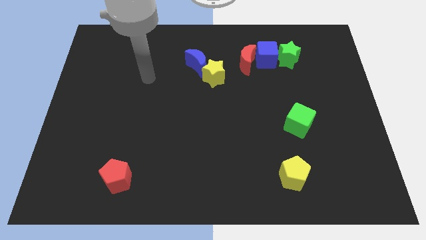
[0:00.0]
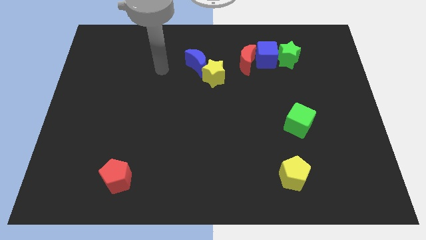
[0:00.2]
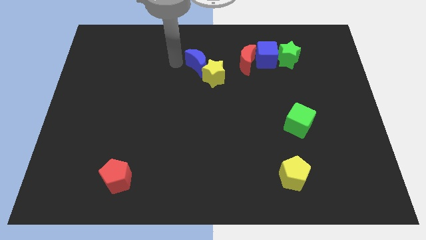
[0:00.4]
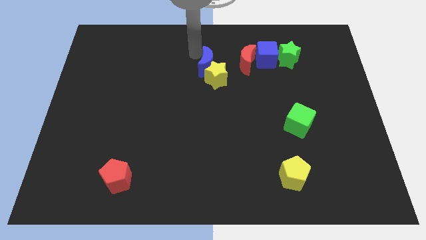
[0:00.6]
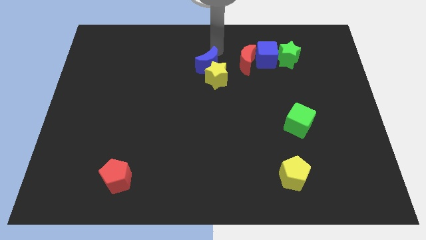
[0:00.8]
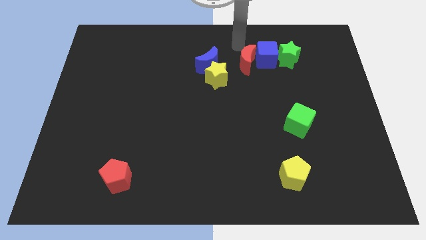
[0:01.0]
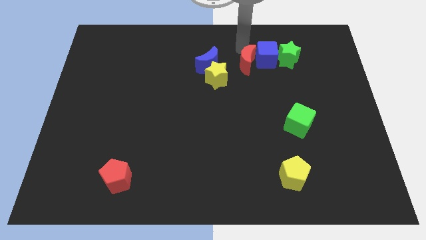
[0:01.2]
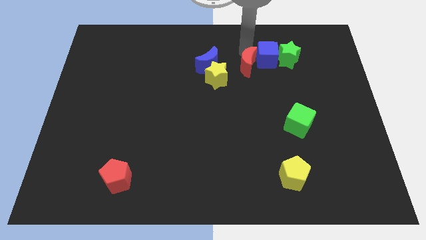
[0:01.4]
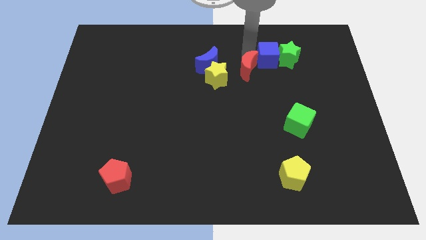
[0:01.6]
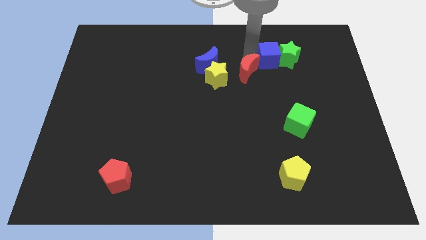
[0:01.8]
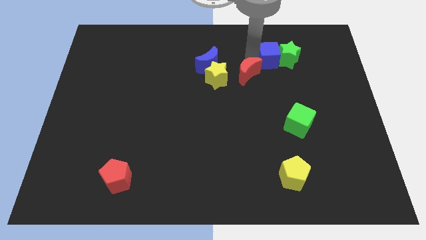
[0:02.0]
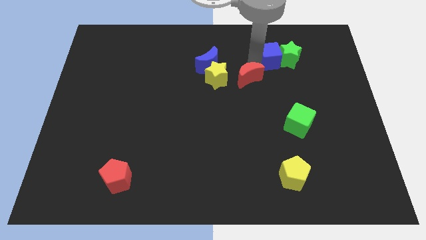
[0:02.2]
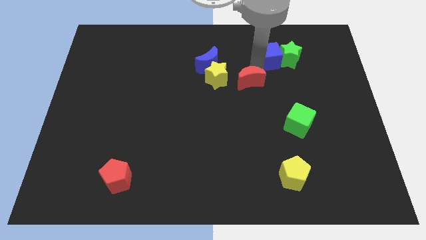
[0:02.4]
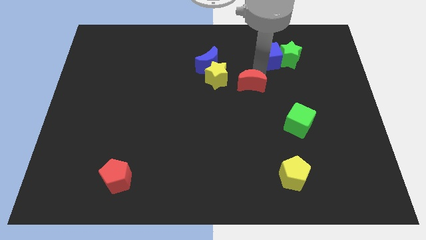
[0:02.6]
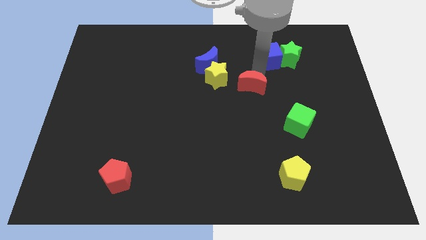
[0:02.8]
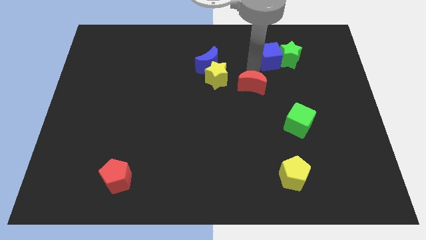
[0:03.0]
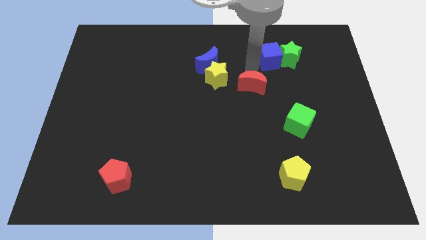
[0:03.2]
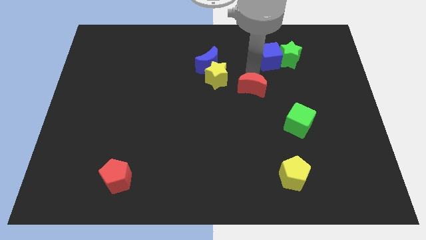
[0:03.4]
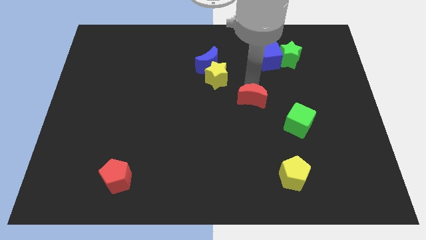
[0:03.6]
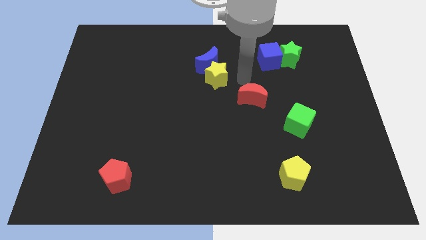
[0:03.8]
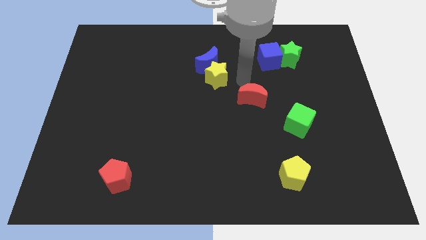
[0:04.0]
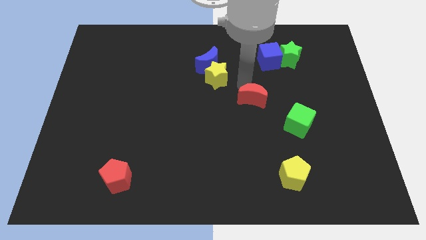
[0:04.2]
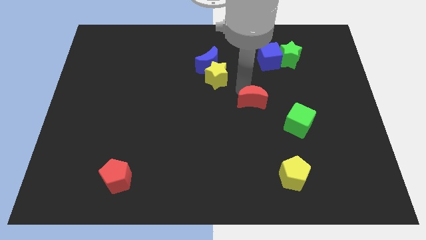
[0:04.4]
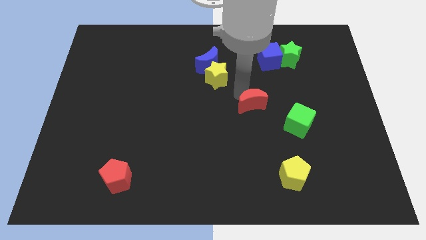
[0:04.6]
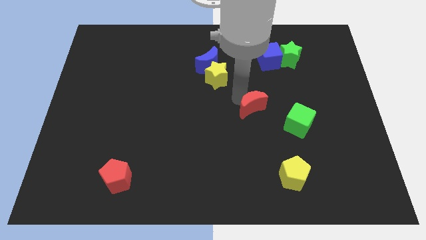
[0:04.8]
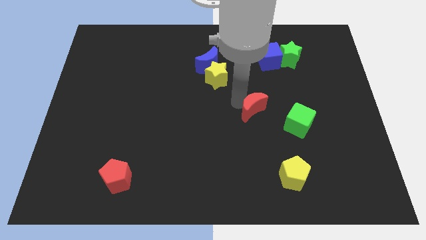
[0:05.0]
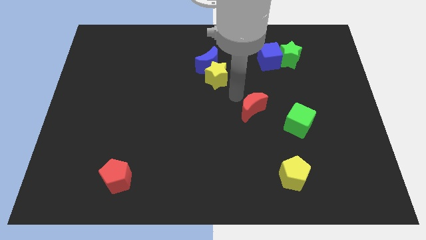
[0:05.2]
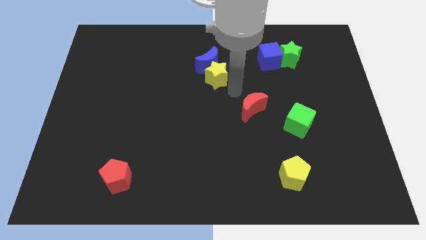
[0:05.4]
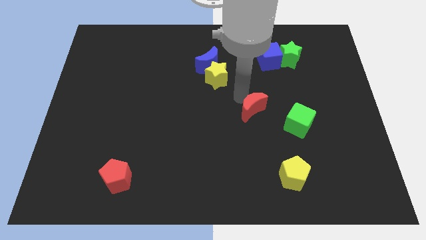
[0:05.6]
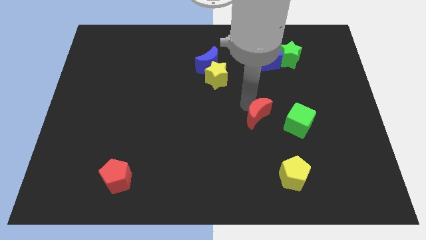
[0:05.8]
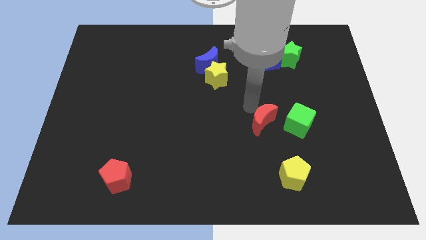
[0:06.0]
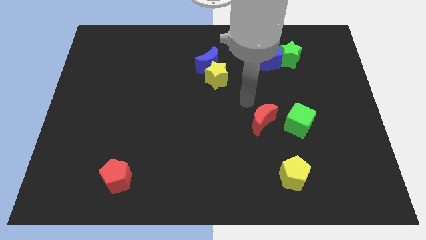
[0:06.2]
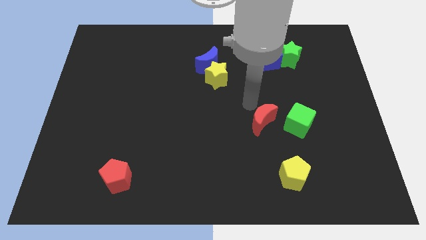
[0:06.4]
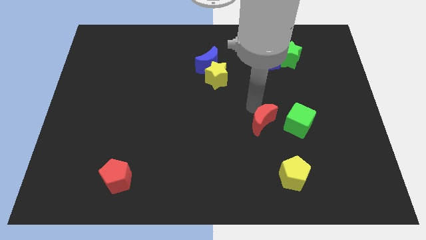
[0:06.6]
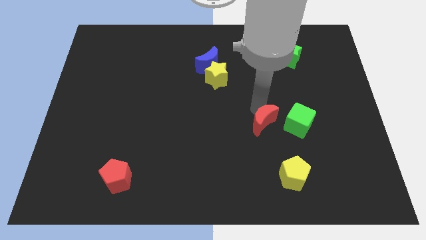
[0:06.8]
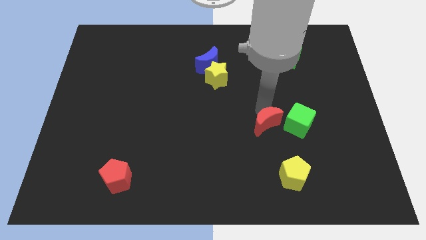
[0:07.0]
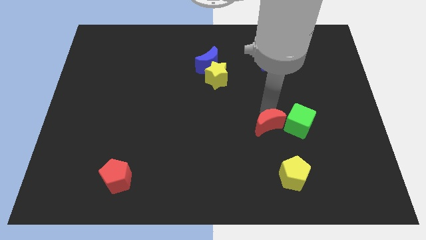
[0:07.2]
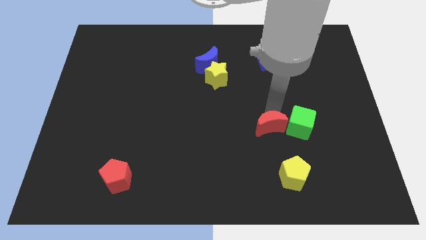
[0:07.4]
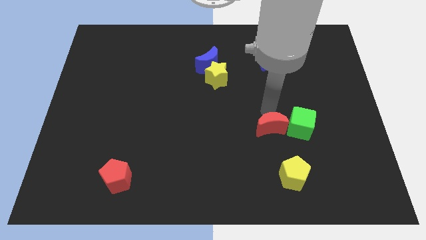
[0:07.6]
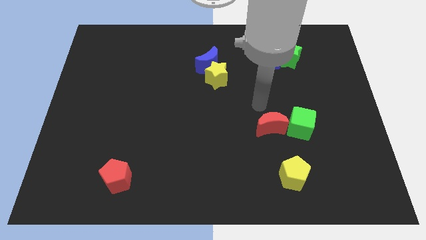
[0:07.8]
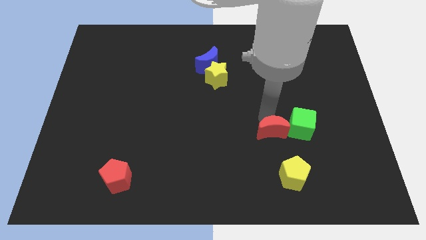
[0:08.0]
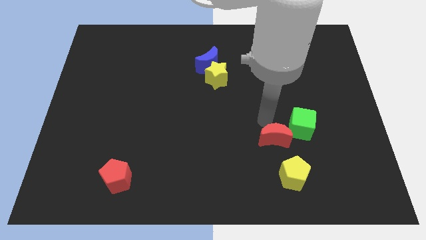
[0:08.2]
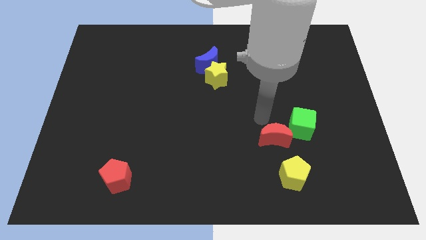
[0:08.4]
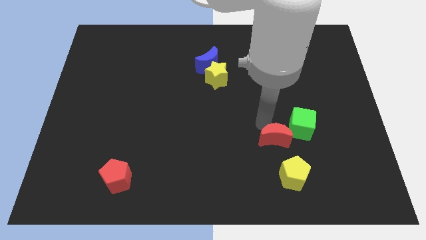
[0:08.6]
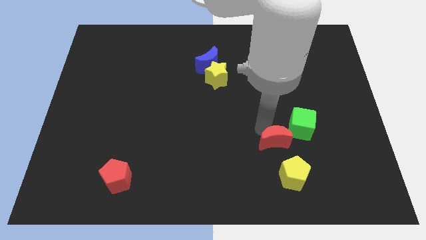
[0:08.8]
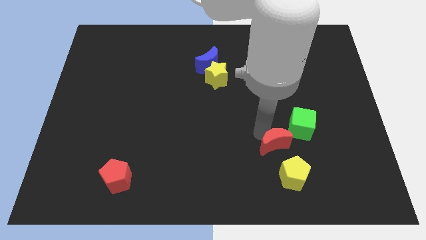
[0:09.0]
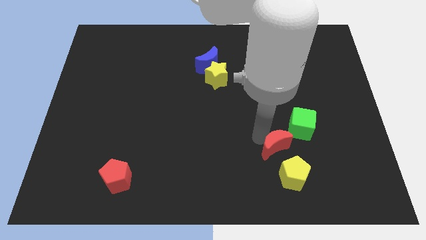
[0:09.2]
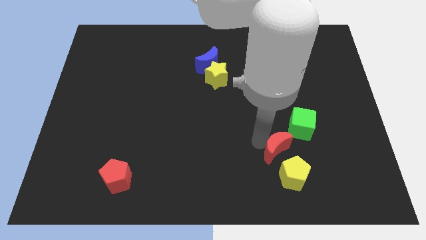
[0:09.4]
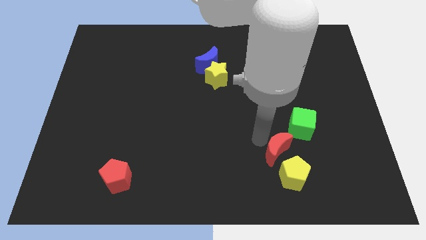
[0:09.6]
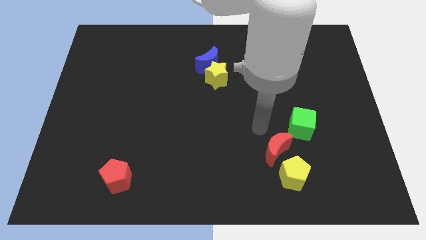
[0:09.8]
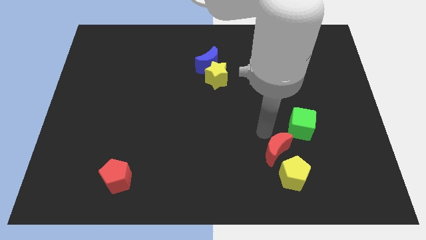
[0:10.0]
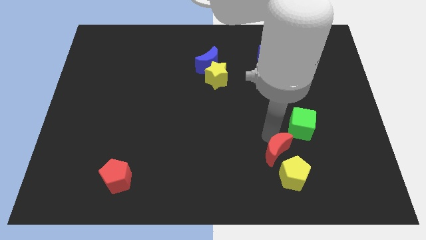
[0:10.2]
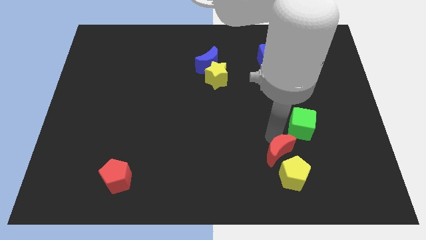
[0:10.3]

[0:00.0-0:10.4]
push the red moon towards the yellow pentagon

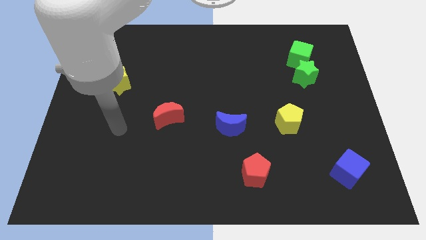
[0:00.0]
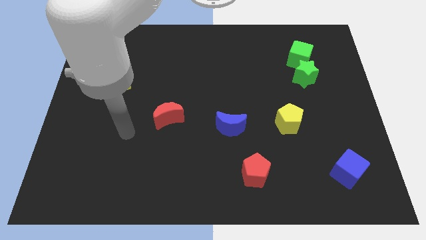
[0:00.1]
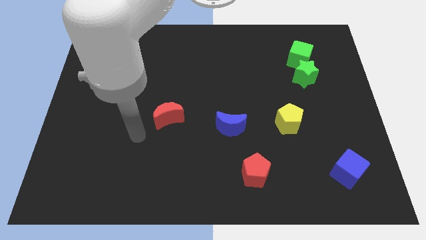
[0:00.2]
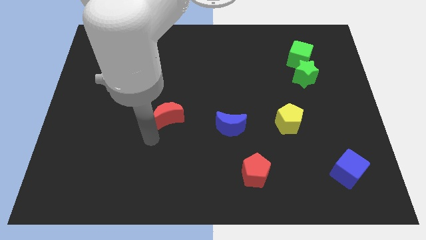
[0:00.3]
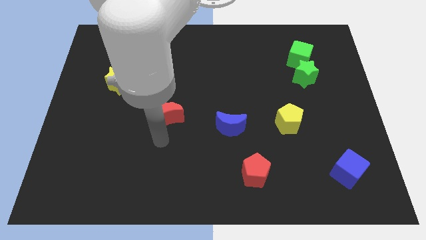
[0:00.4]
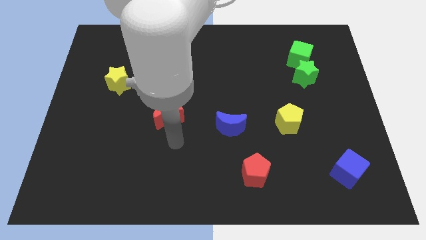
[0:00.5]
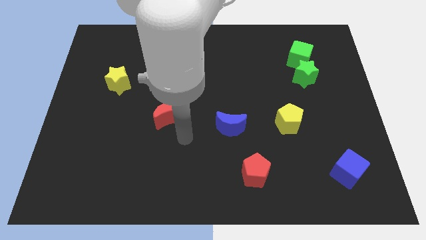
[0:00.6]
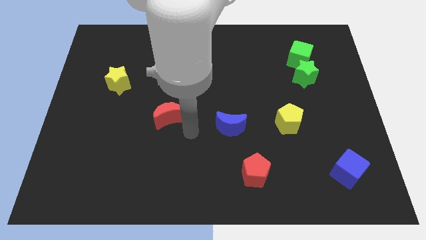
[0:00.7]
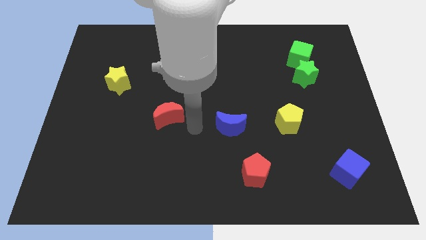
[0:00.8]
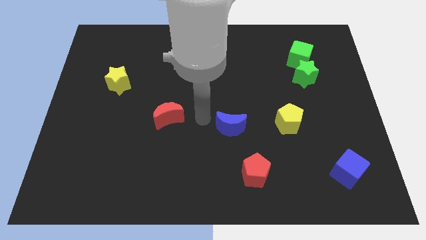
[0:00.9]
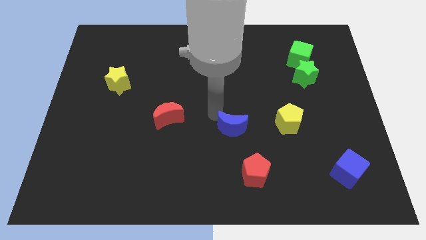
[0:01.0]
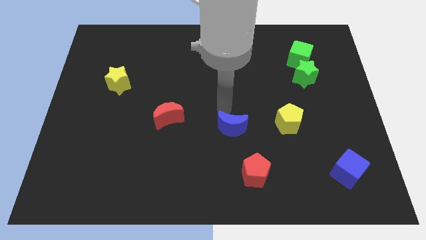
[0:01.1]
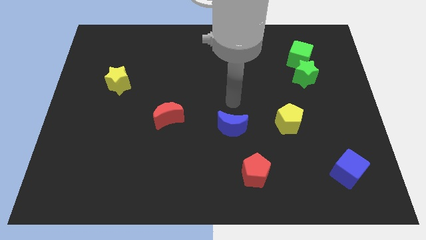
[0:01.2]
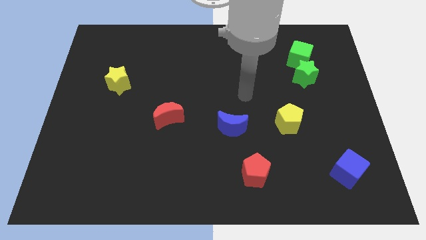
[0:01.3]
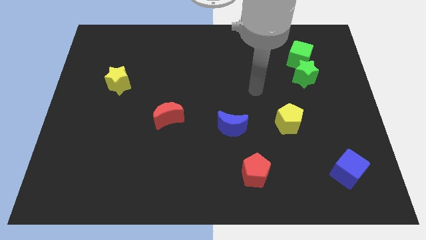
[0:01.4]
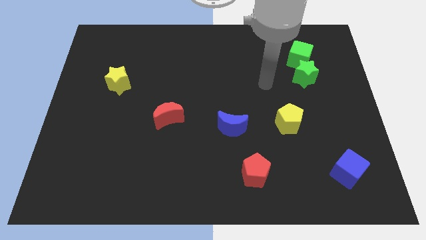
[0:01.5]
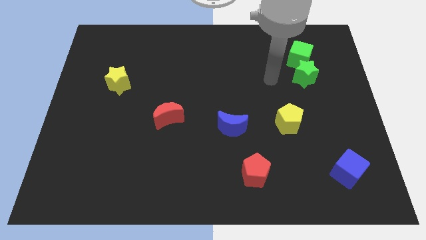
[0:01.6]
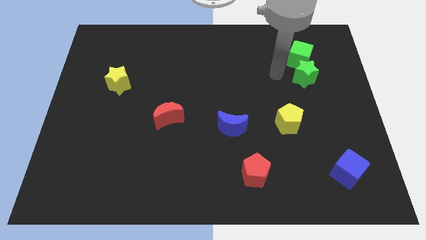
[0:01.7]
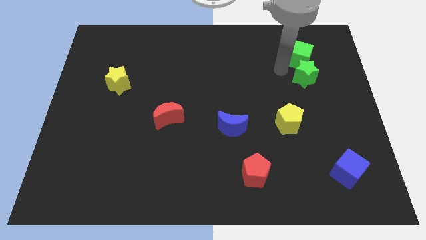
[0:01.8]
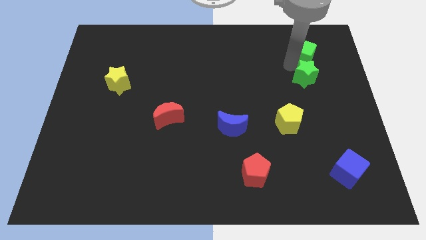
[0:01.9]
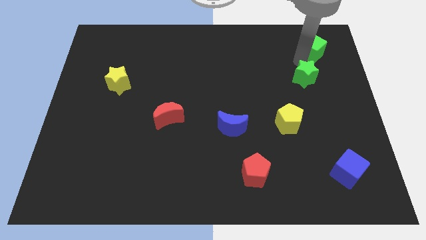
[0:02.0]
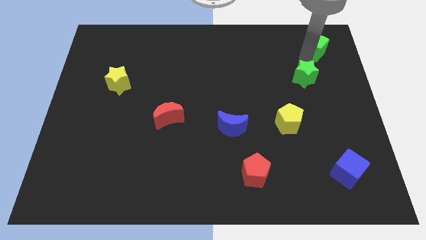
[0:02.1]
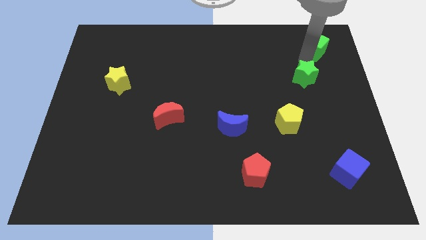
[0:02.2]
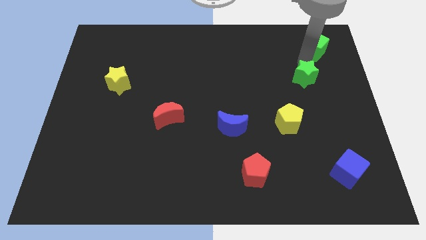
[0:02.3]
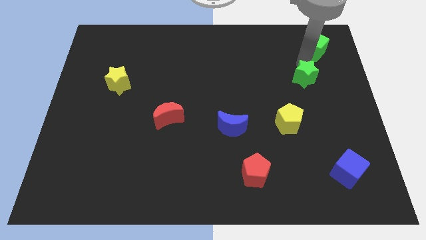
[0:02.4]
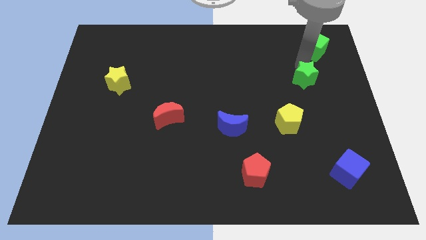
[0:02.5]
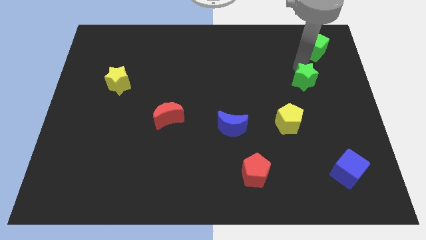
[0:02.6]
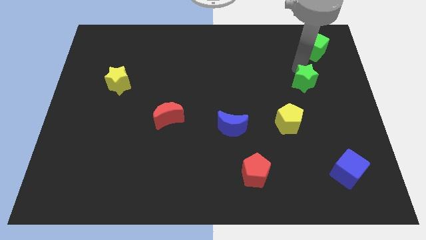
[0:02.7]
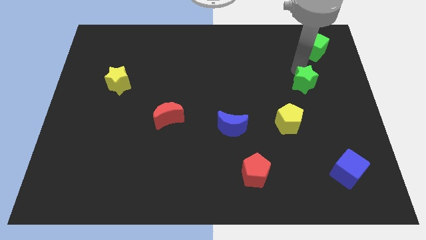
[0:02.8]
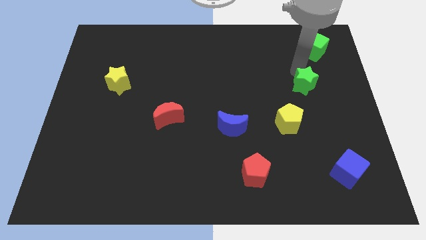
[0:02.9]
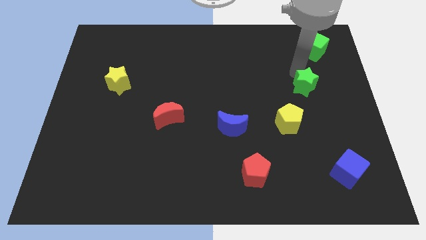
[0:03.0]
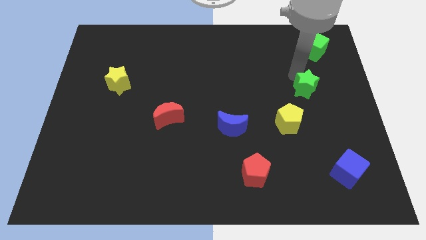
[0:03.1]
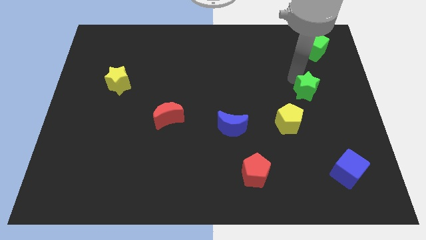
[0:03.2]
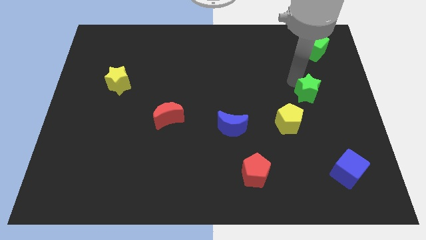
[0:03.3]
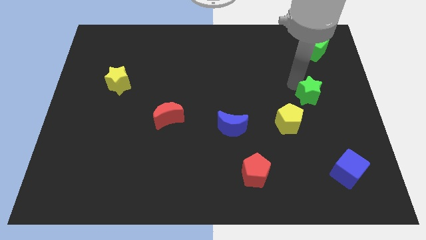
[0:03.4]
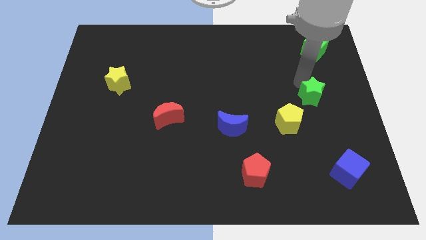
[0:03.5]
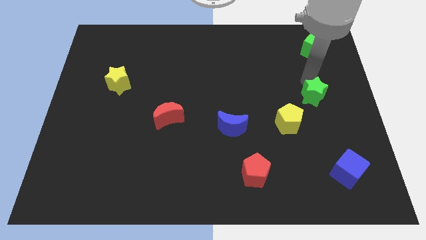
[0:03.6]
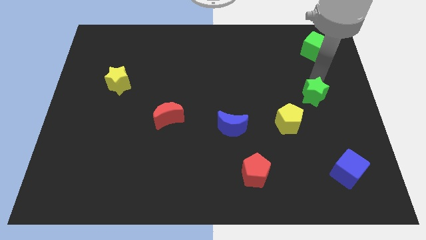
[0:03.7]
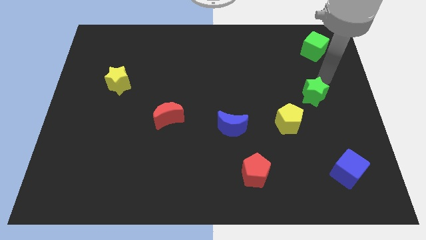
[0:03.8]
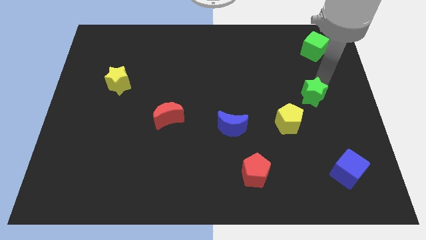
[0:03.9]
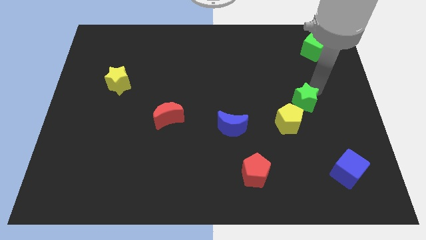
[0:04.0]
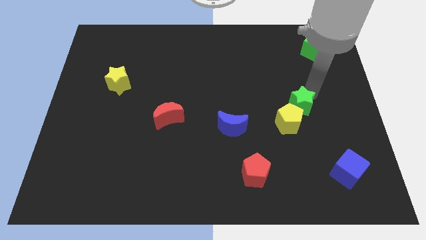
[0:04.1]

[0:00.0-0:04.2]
move the green star next to the yellow pentagon
